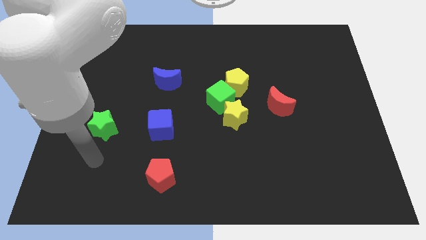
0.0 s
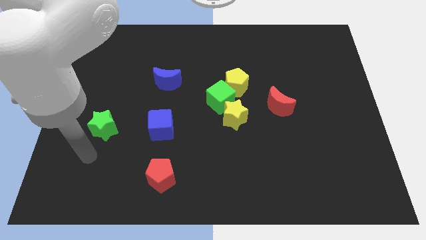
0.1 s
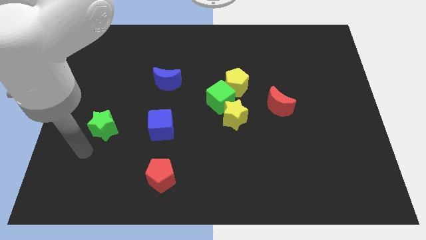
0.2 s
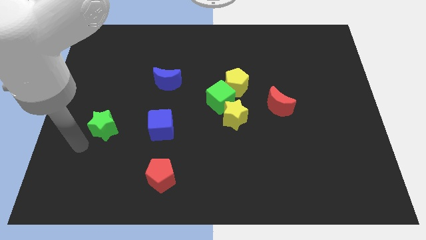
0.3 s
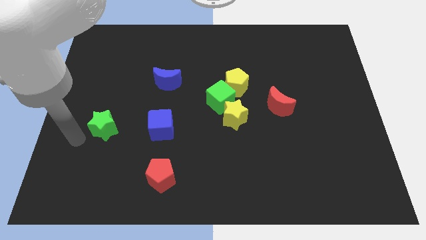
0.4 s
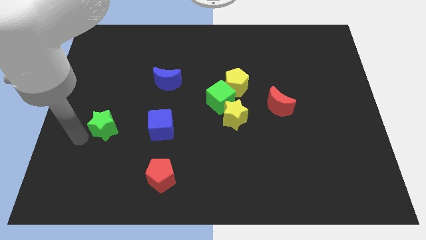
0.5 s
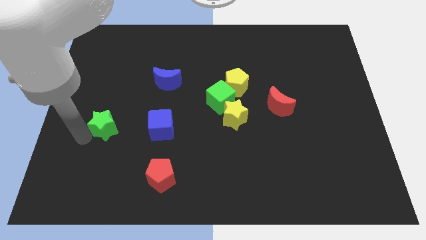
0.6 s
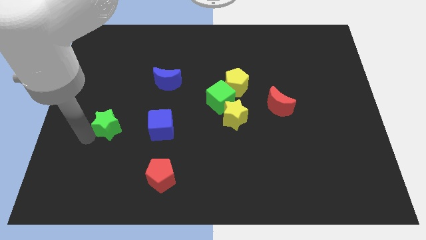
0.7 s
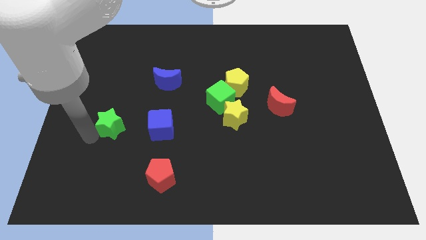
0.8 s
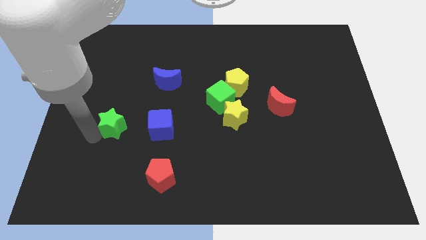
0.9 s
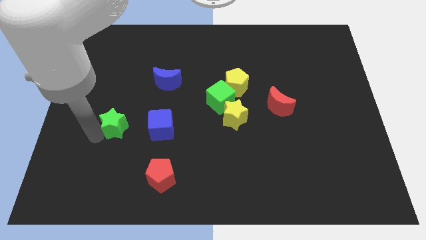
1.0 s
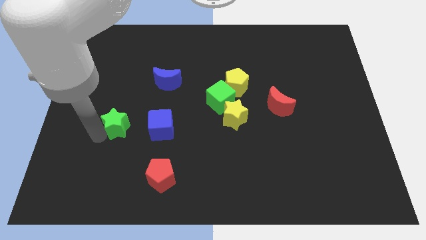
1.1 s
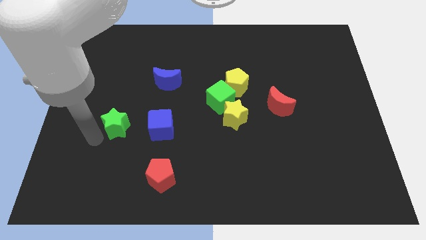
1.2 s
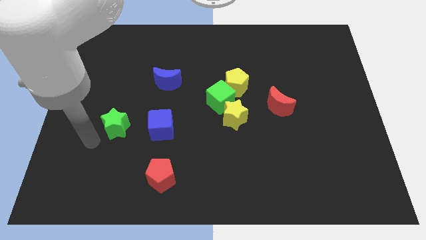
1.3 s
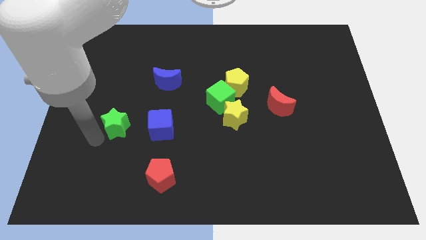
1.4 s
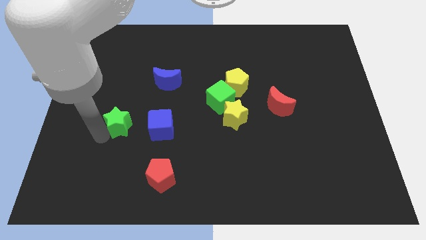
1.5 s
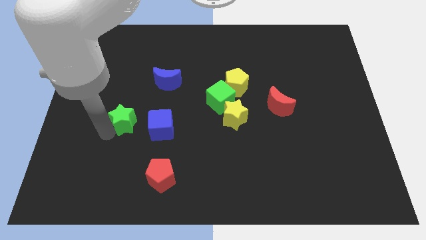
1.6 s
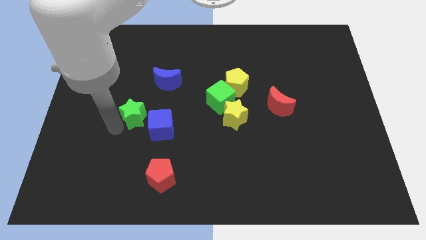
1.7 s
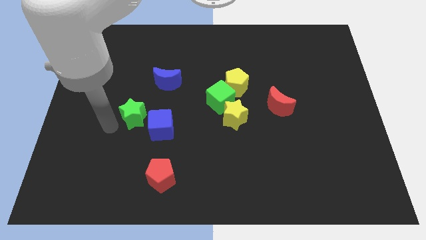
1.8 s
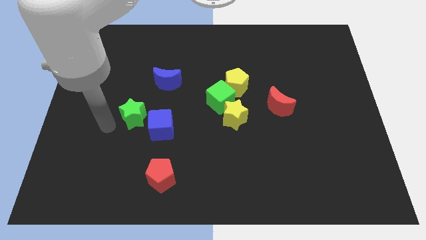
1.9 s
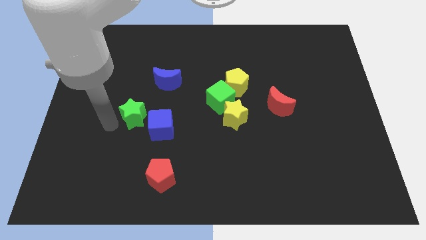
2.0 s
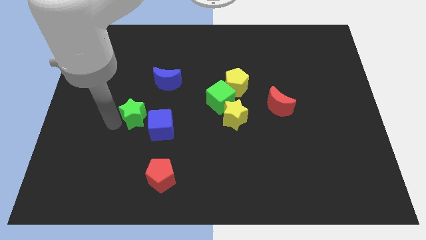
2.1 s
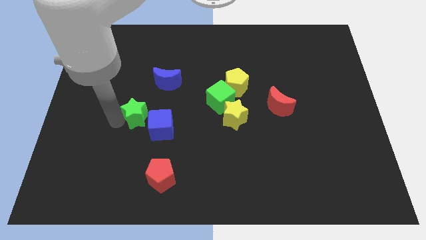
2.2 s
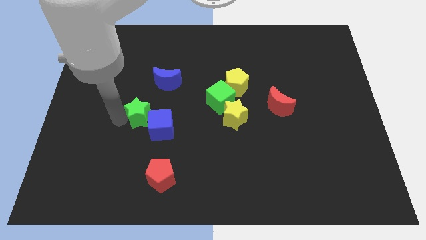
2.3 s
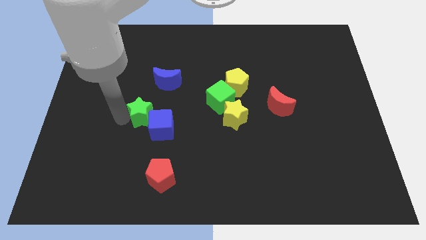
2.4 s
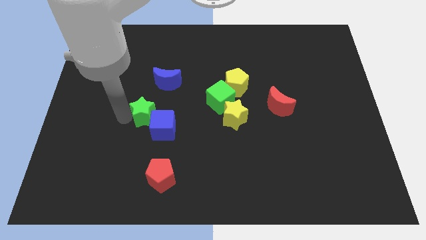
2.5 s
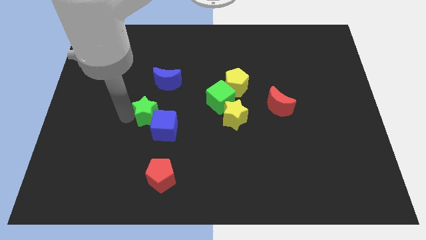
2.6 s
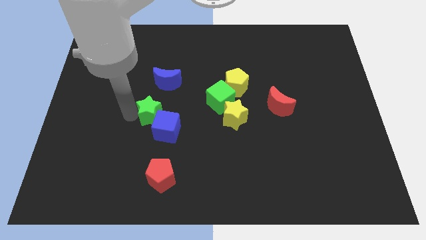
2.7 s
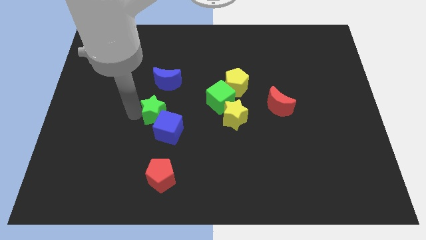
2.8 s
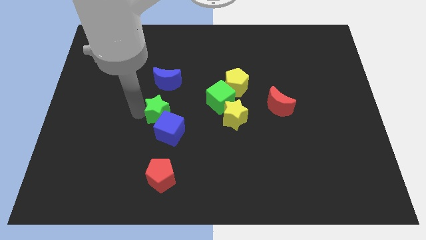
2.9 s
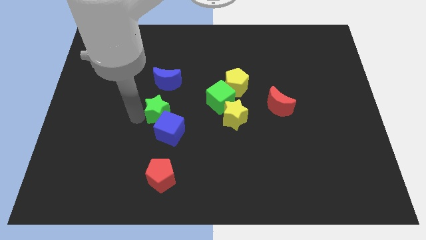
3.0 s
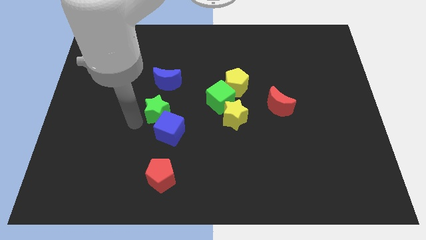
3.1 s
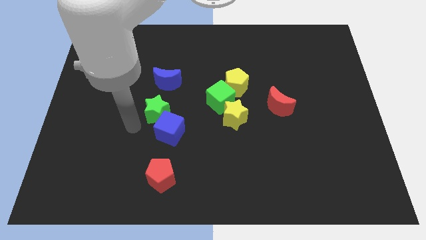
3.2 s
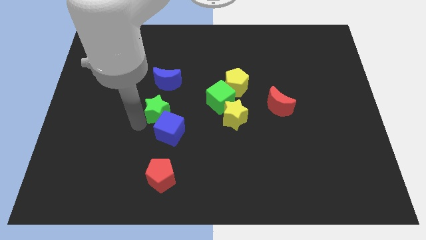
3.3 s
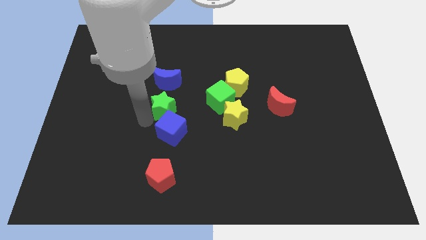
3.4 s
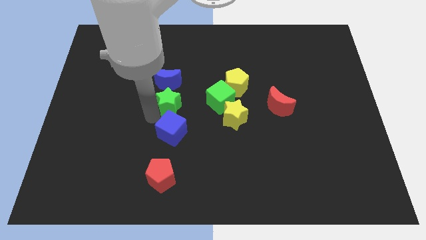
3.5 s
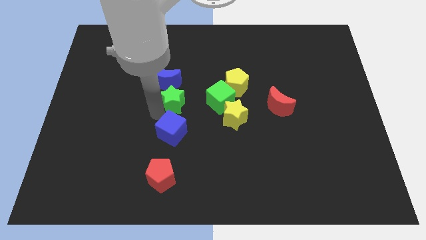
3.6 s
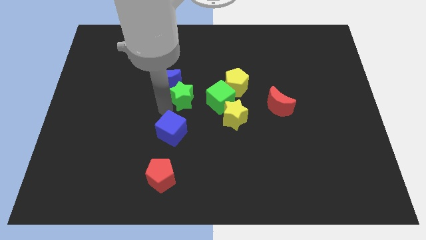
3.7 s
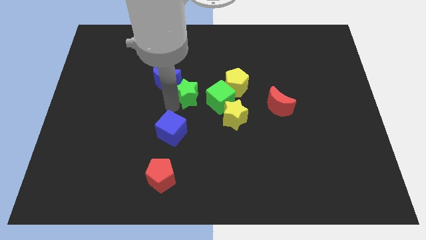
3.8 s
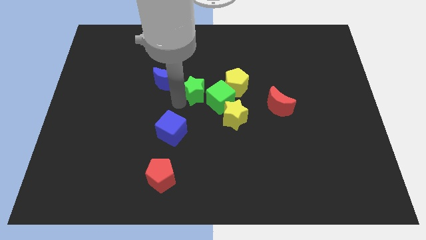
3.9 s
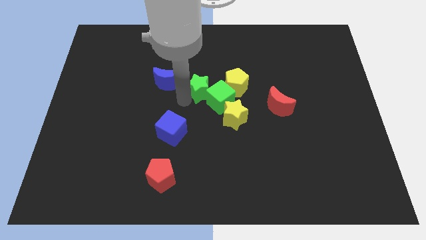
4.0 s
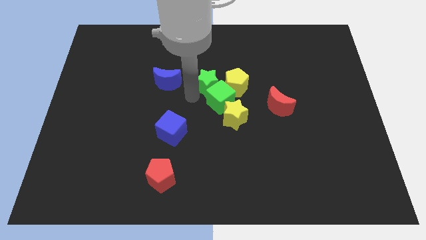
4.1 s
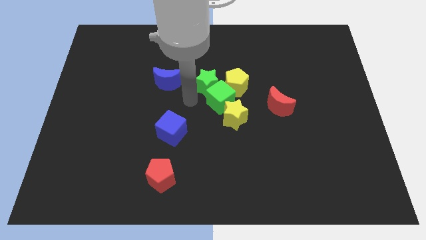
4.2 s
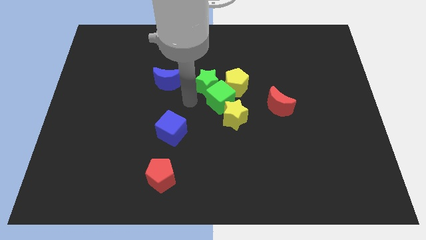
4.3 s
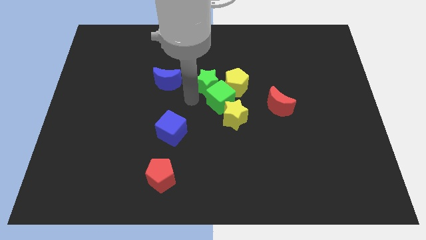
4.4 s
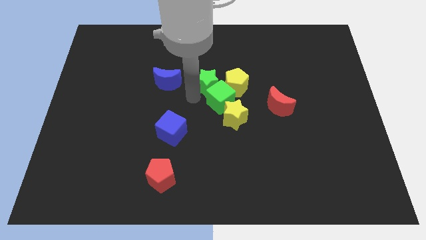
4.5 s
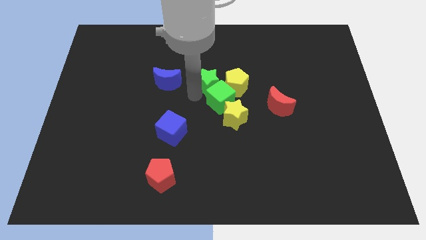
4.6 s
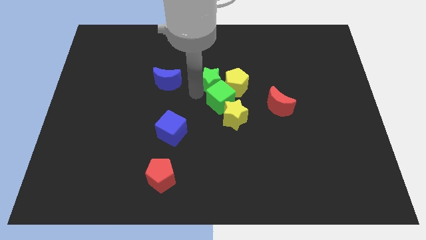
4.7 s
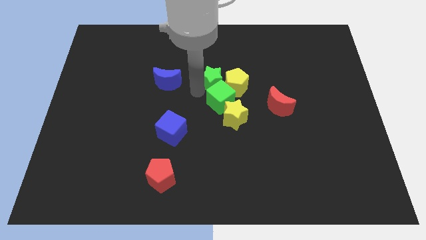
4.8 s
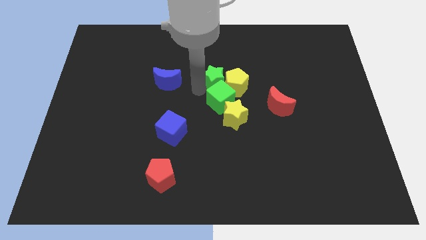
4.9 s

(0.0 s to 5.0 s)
push the green star to the top right of the green cube

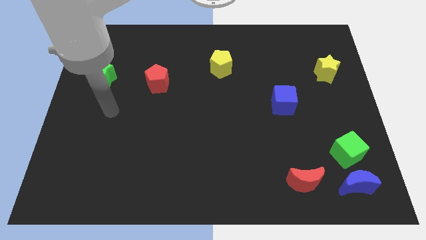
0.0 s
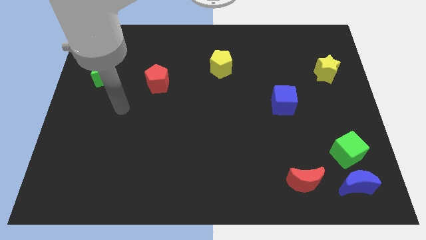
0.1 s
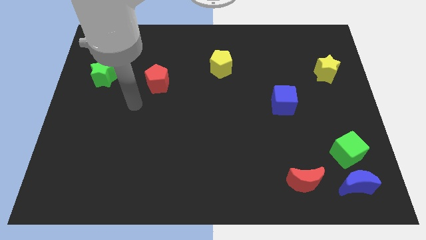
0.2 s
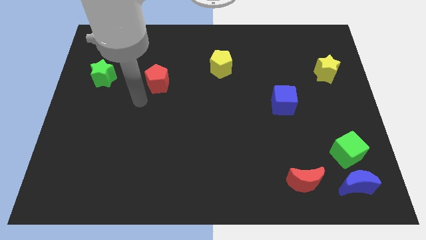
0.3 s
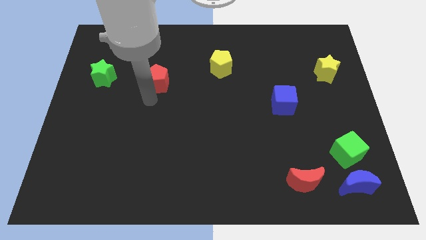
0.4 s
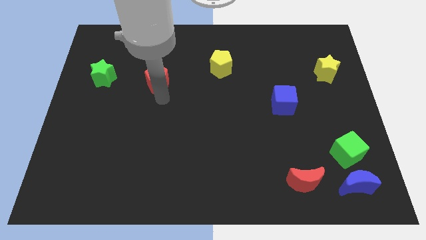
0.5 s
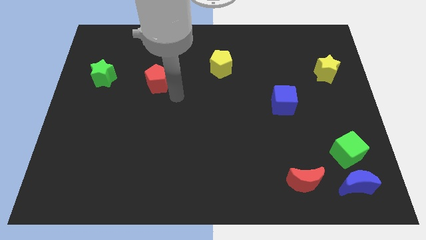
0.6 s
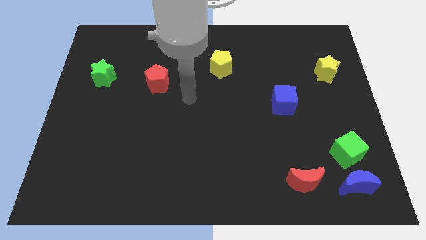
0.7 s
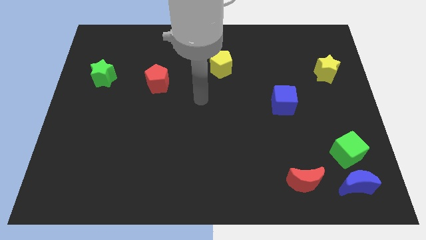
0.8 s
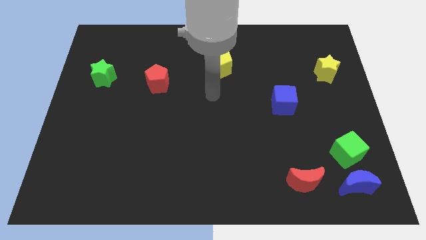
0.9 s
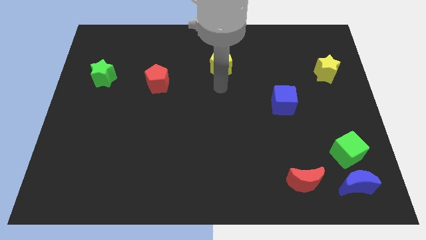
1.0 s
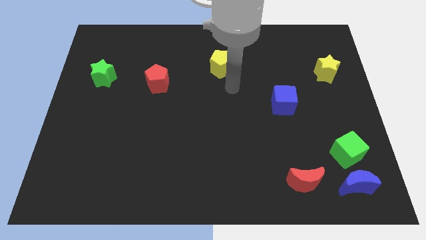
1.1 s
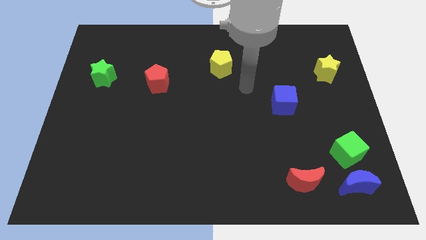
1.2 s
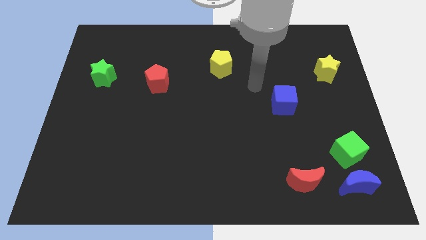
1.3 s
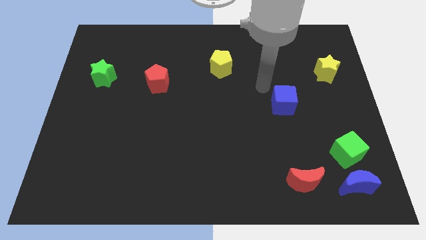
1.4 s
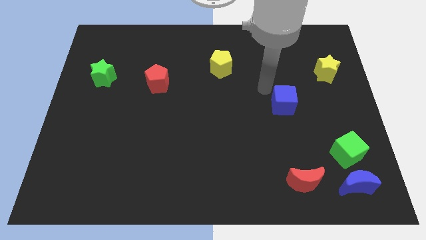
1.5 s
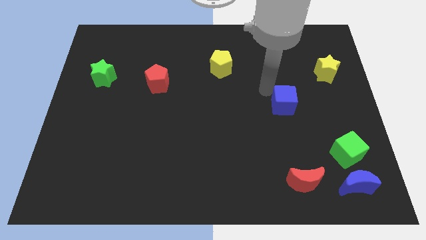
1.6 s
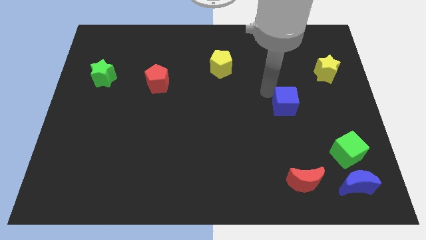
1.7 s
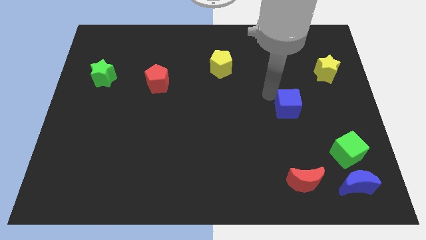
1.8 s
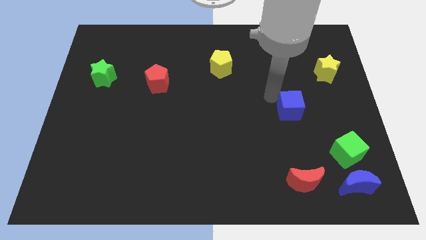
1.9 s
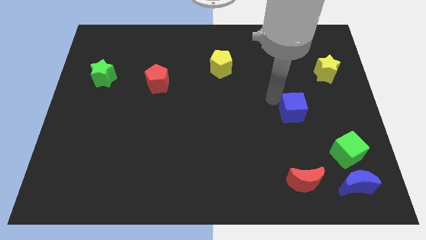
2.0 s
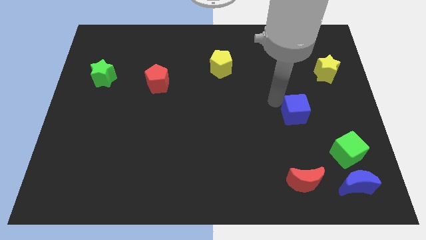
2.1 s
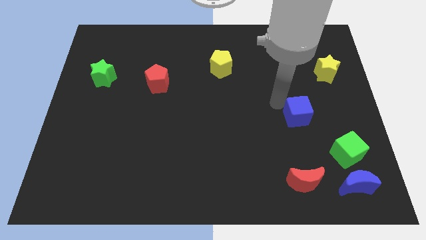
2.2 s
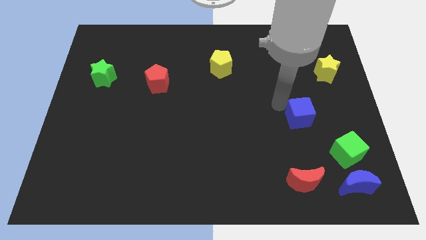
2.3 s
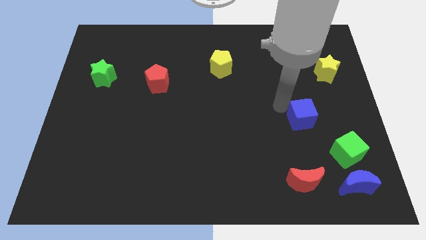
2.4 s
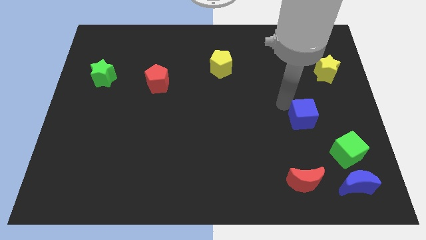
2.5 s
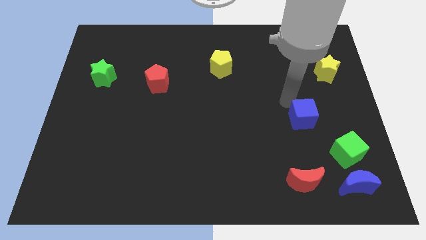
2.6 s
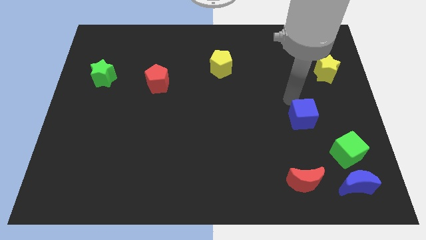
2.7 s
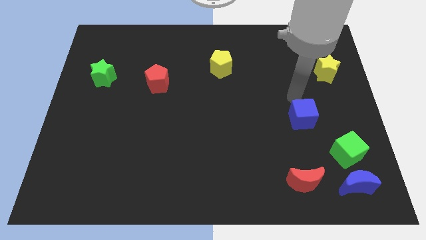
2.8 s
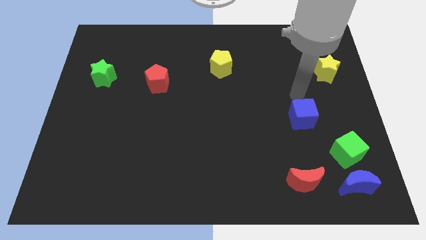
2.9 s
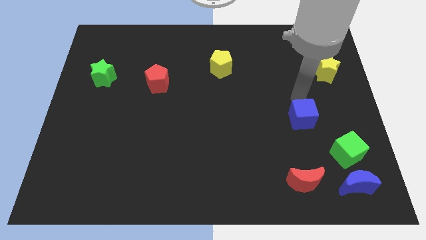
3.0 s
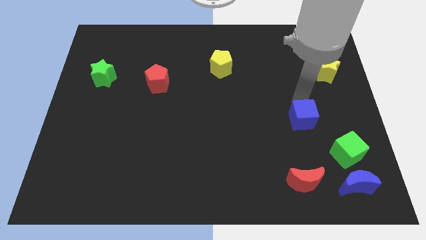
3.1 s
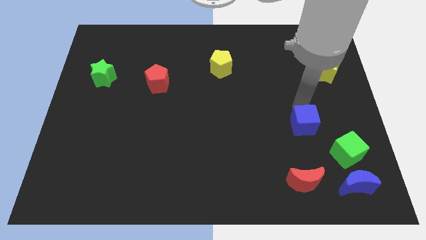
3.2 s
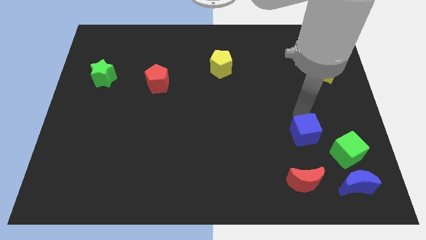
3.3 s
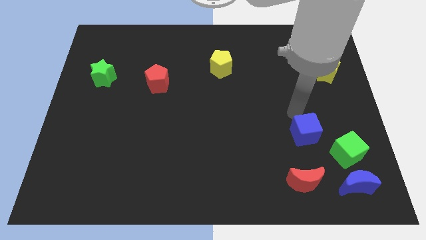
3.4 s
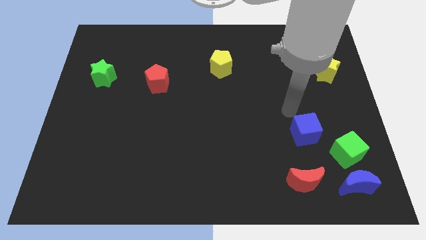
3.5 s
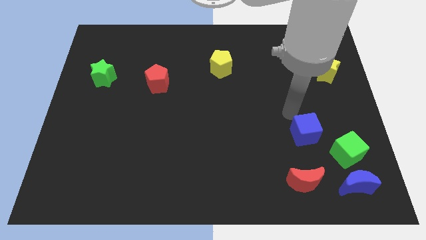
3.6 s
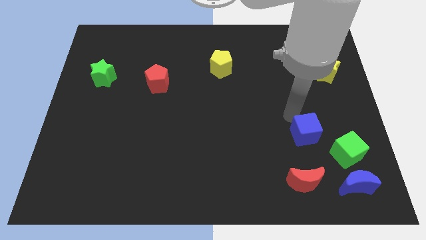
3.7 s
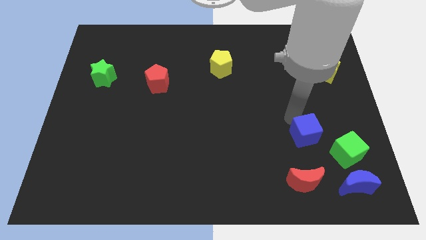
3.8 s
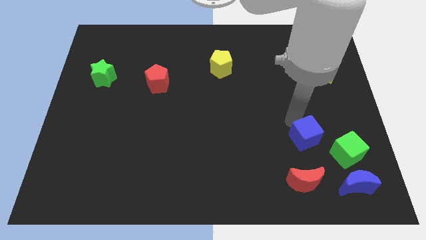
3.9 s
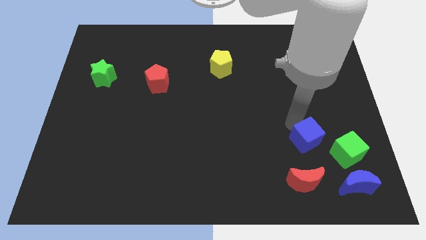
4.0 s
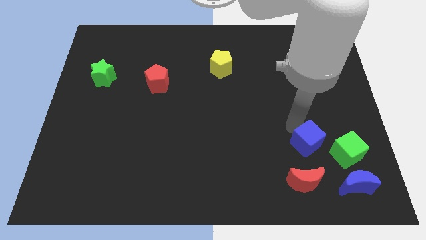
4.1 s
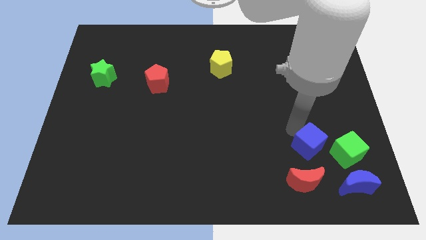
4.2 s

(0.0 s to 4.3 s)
slide the blue cube to the top right of the red moon
